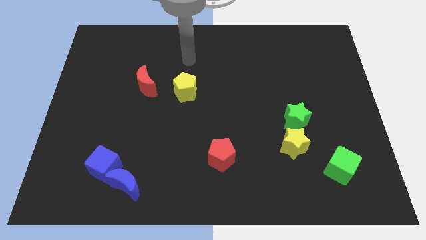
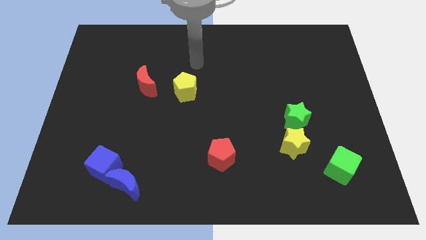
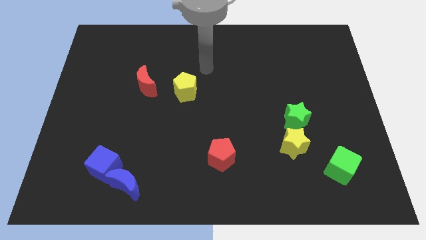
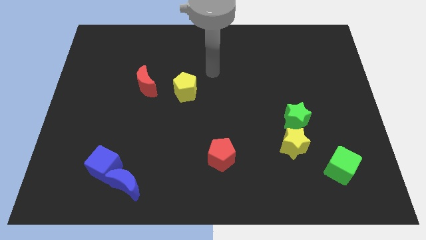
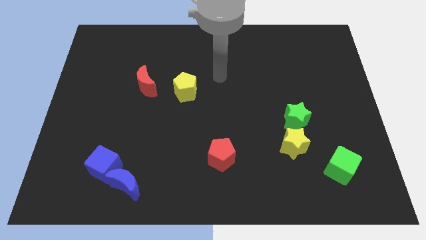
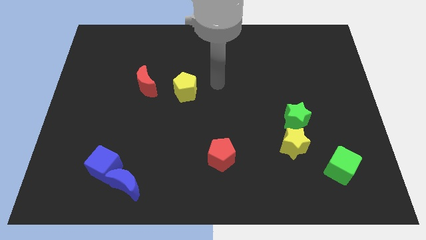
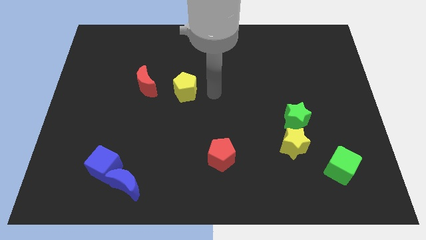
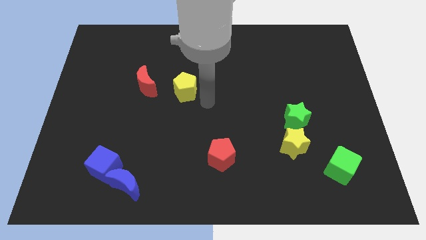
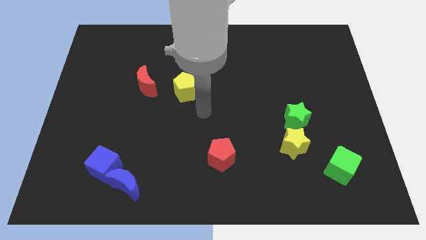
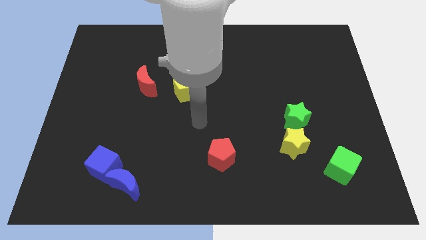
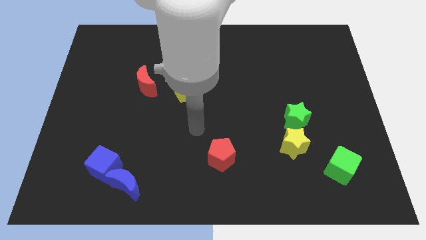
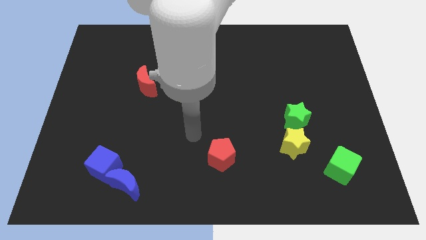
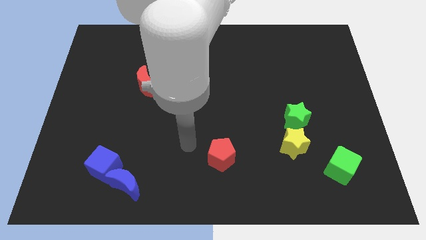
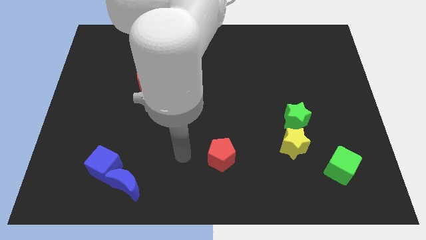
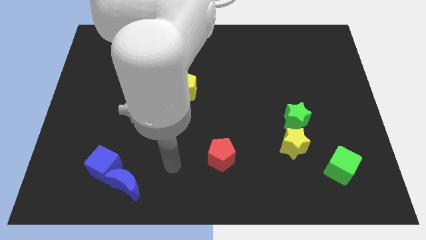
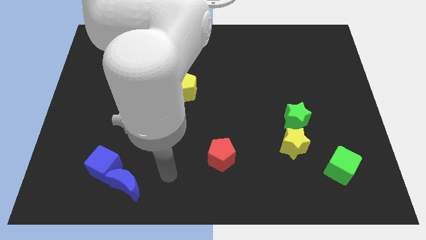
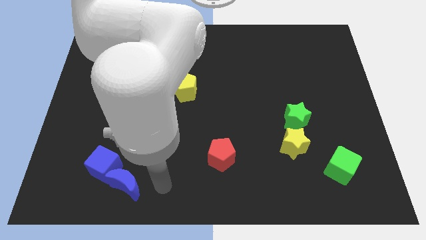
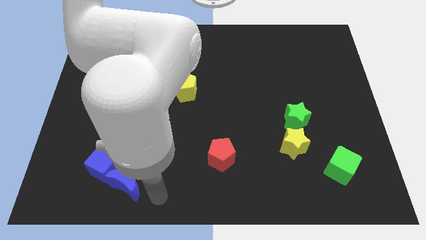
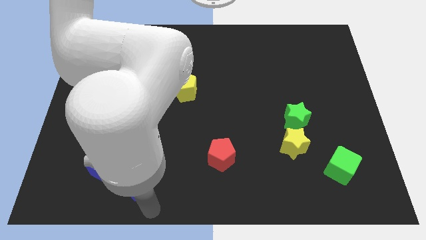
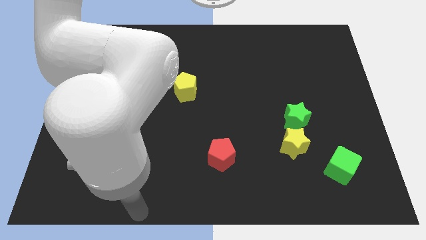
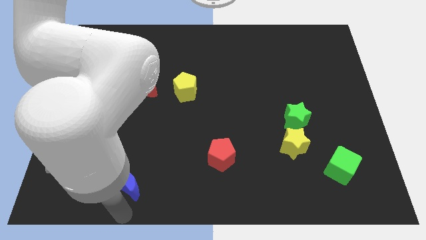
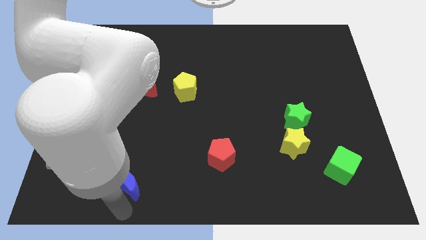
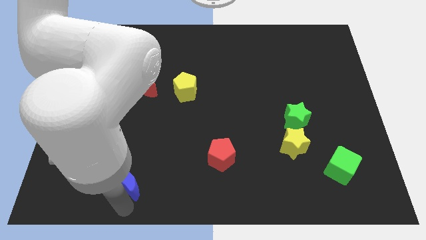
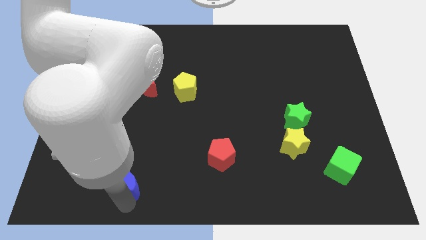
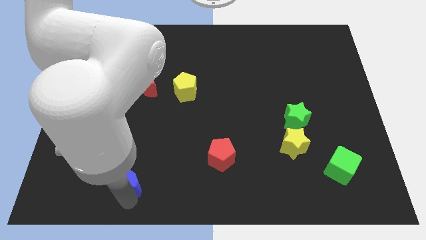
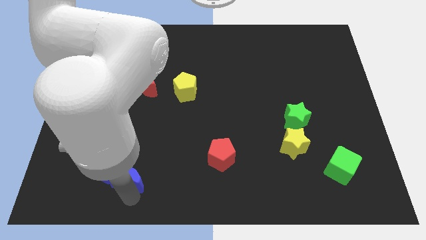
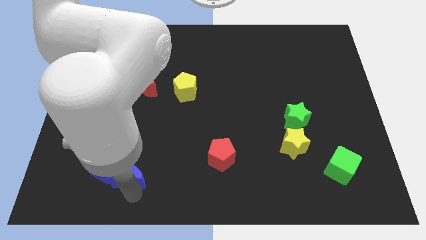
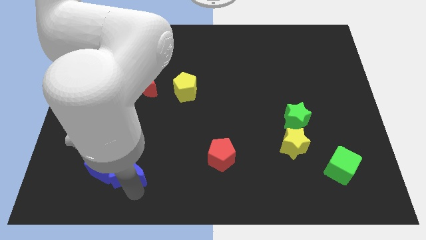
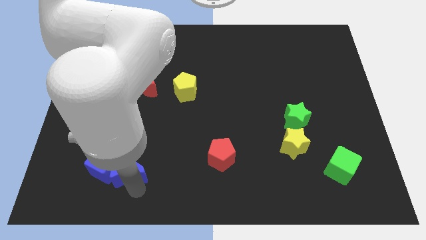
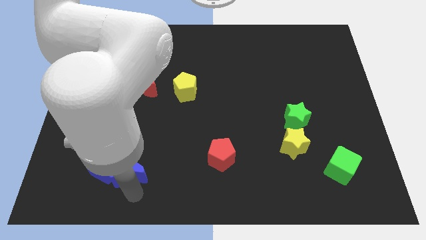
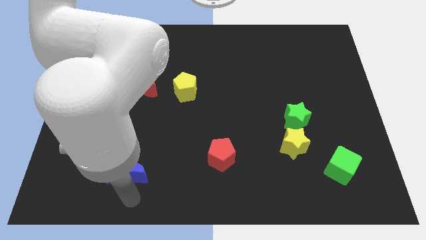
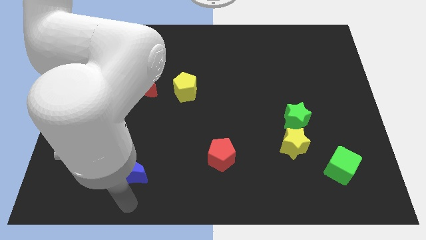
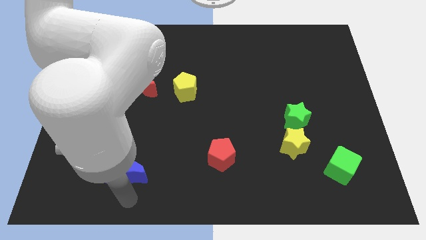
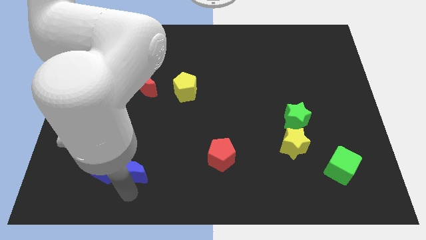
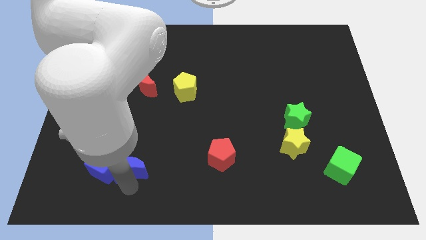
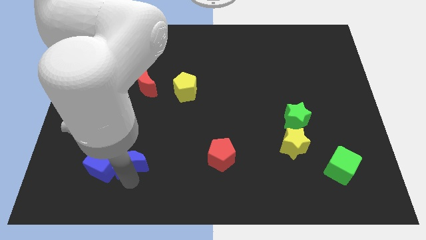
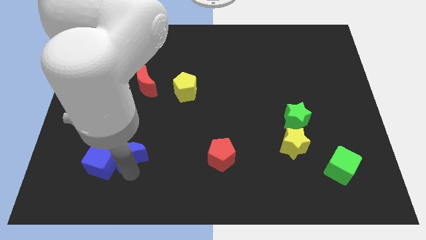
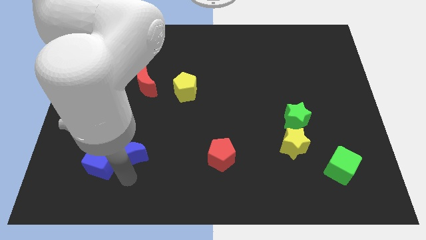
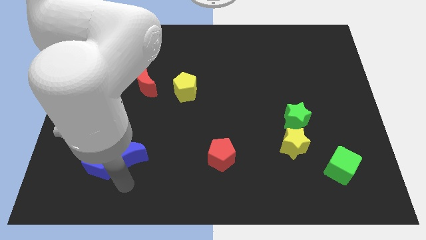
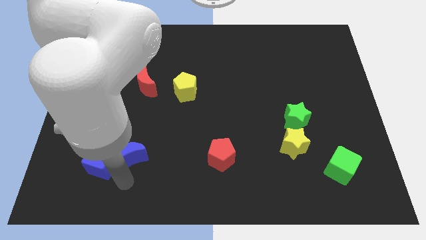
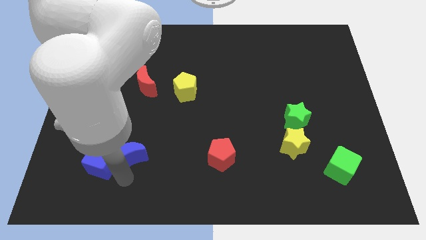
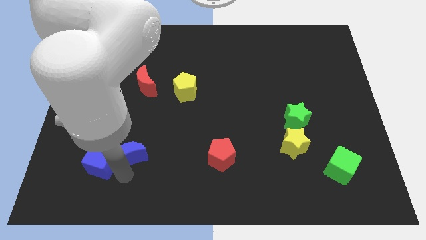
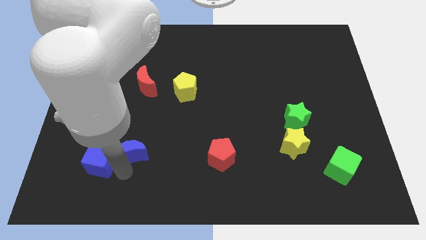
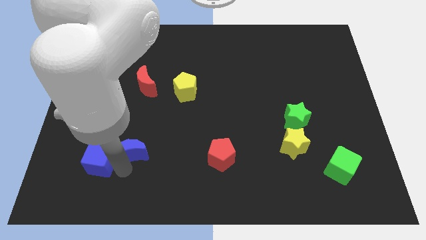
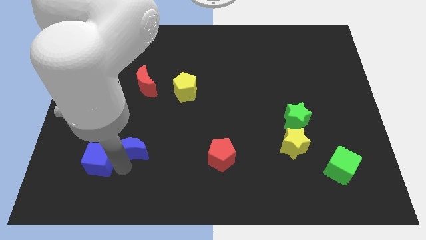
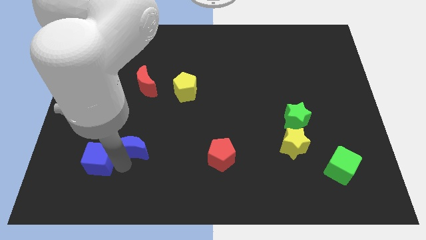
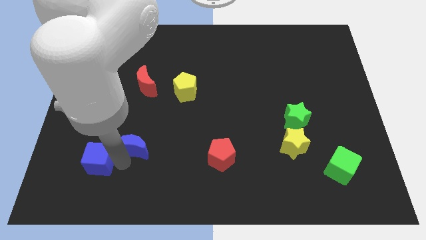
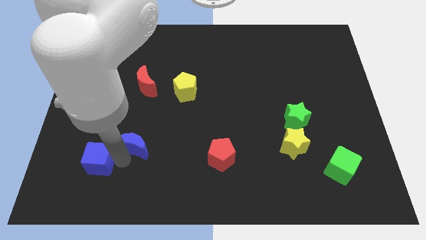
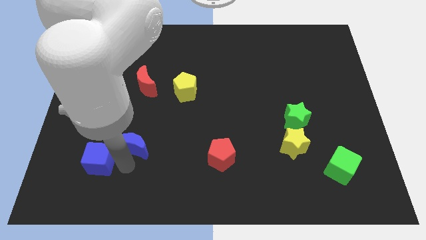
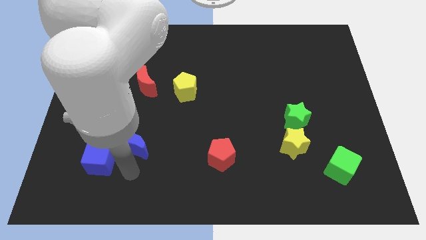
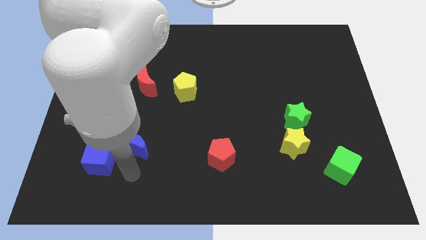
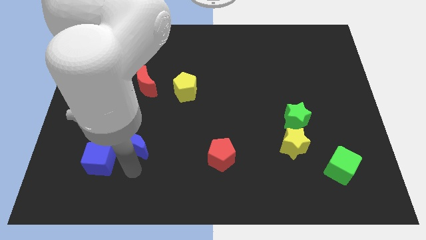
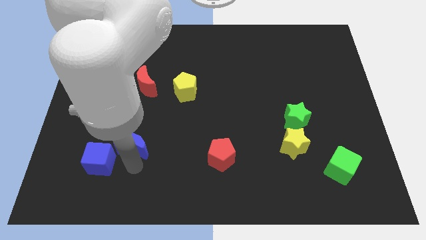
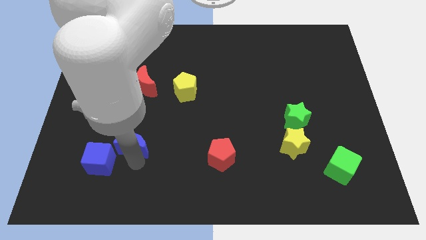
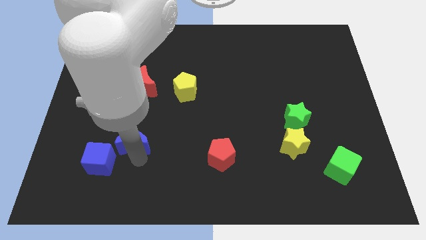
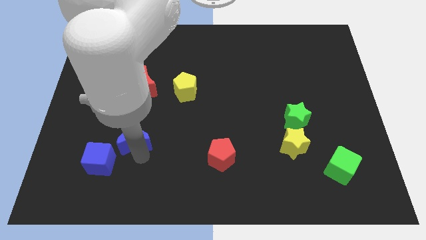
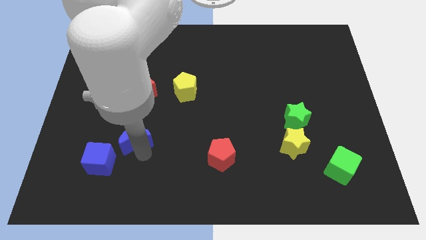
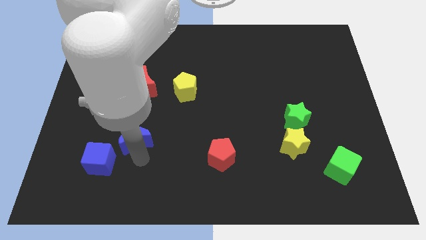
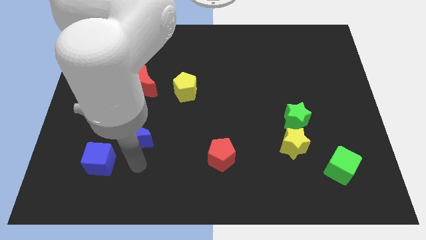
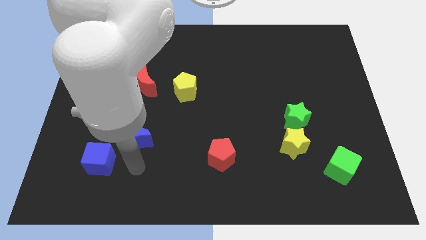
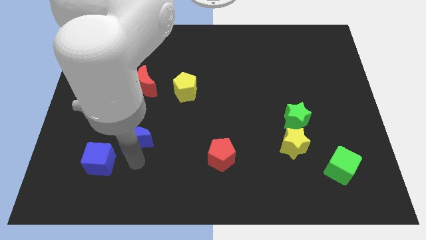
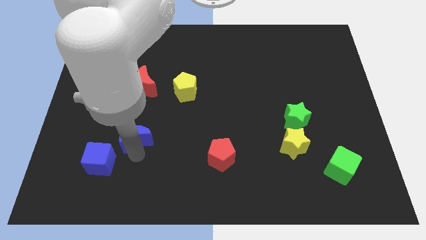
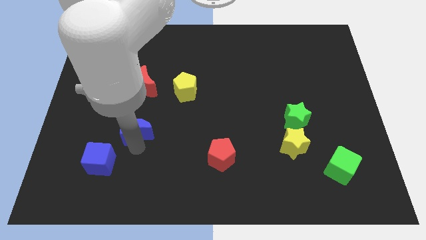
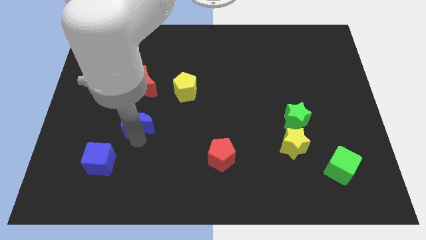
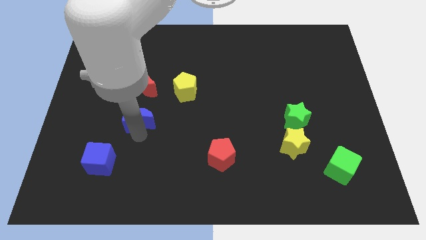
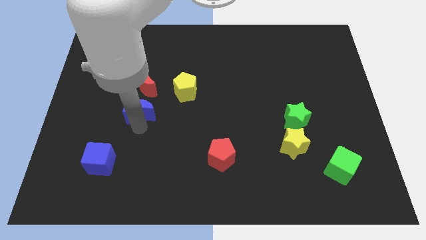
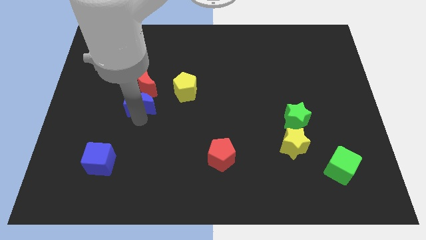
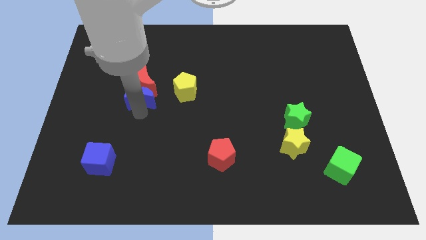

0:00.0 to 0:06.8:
slide the blue moon close to the red moon

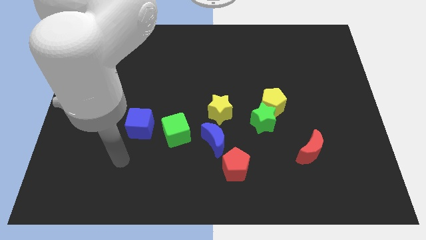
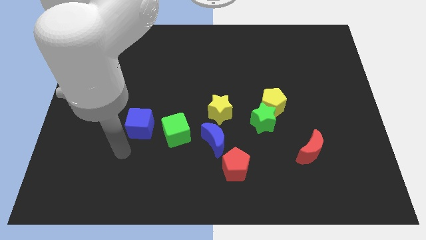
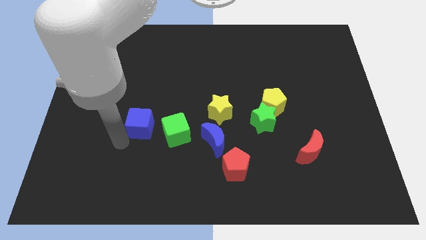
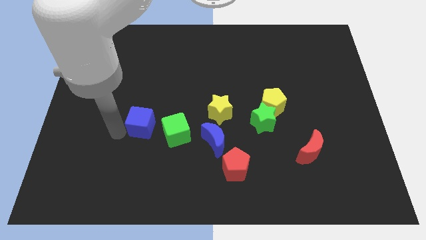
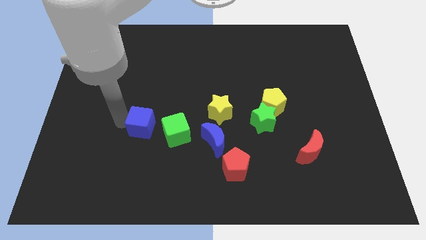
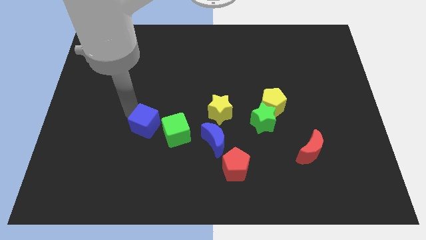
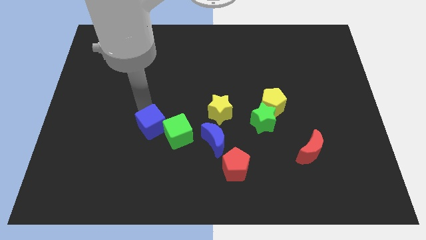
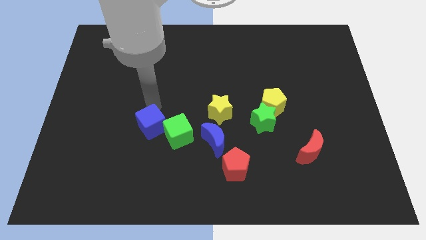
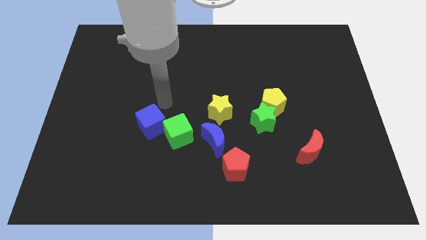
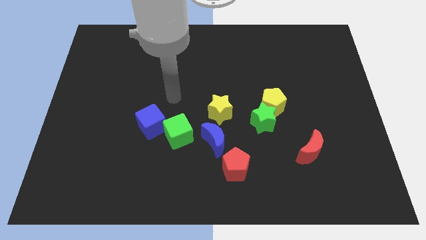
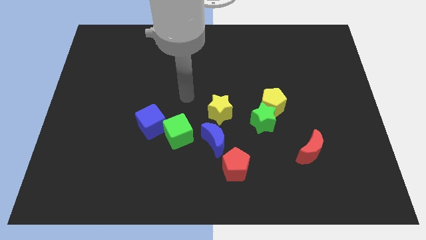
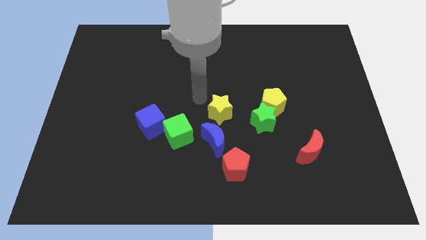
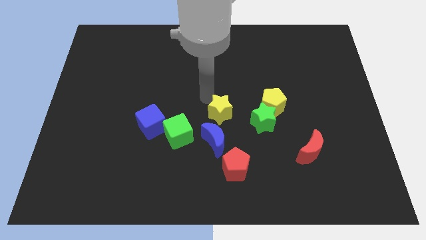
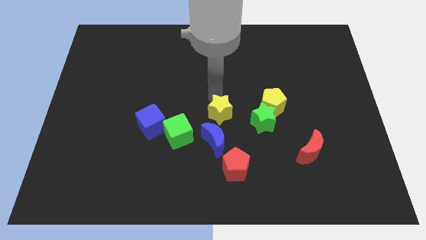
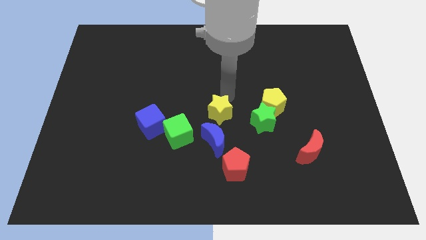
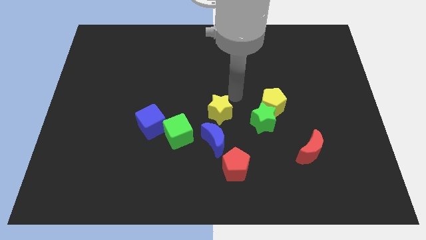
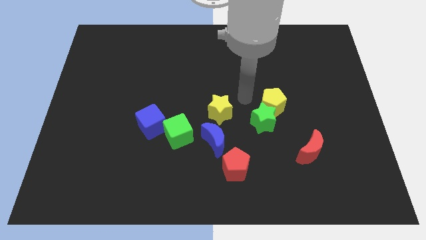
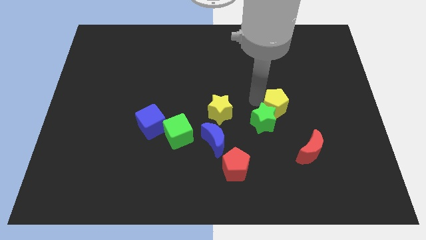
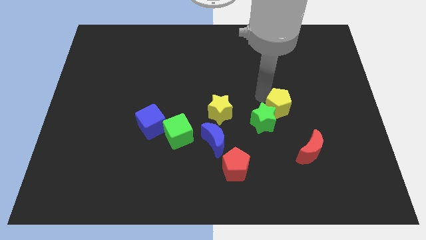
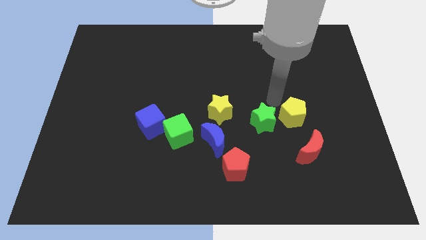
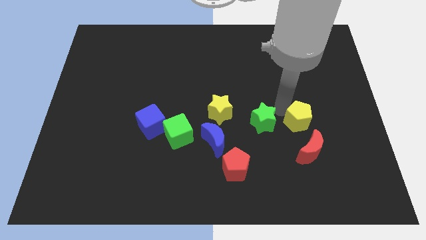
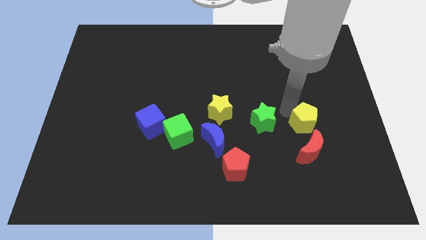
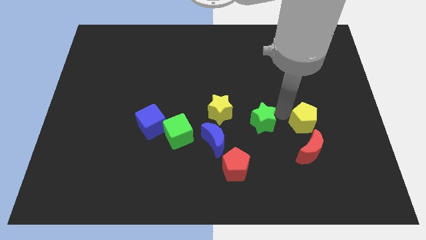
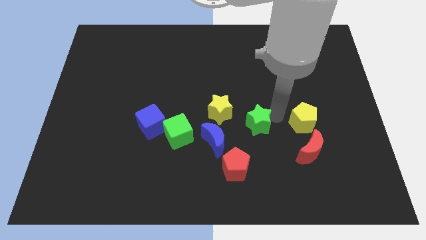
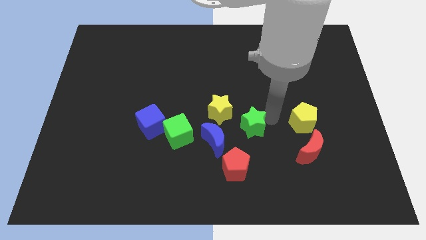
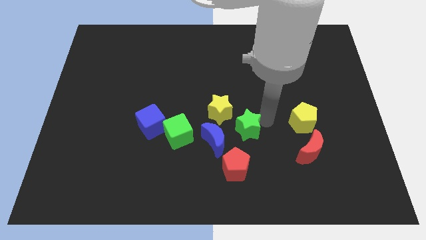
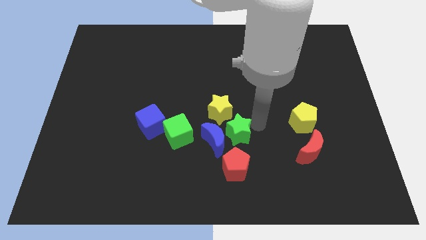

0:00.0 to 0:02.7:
slide the green star next to the blue moon
